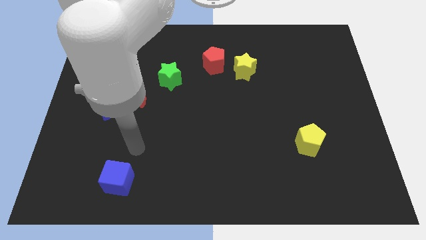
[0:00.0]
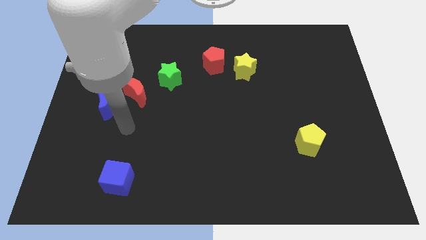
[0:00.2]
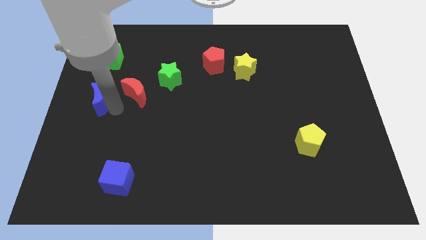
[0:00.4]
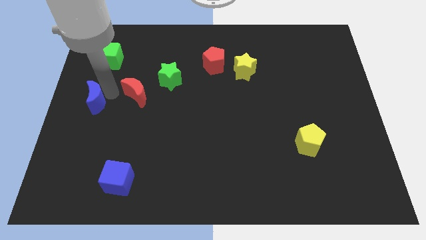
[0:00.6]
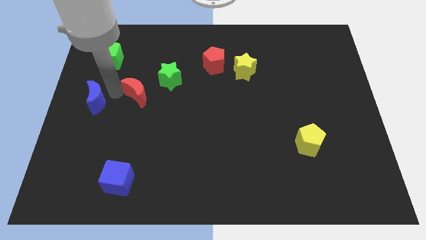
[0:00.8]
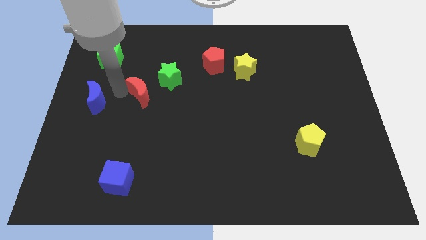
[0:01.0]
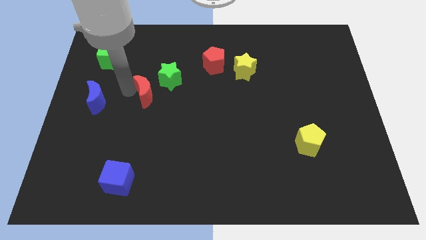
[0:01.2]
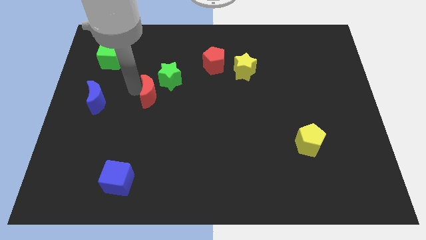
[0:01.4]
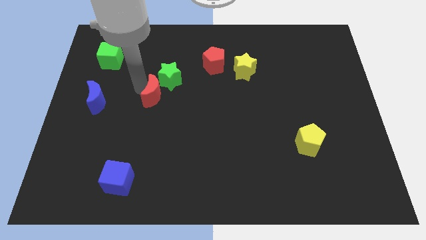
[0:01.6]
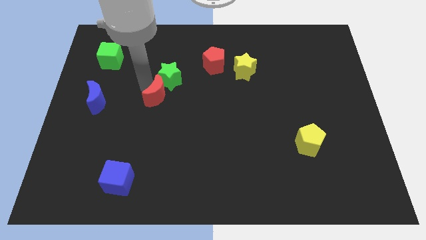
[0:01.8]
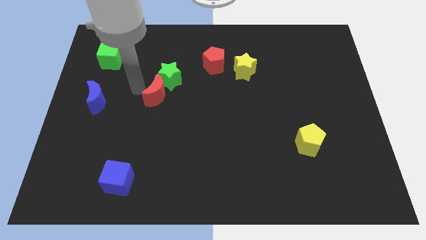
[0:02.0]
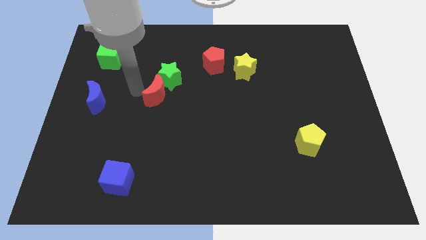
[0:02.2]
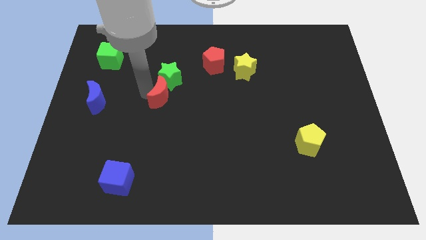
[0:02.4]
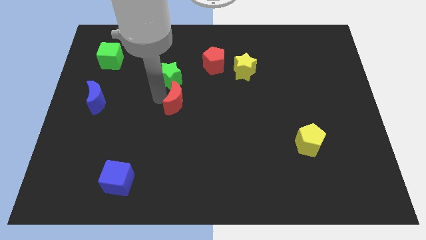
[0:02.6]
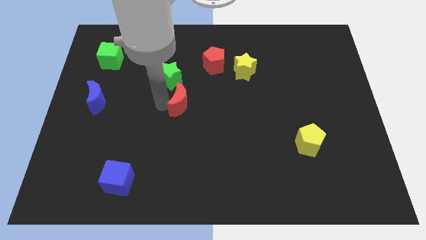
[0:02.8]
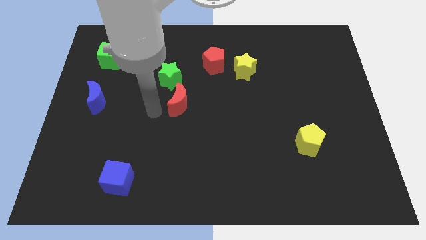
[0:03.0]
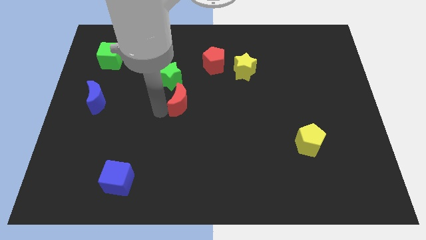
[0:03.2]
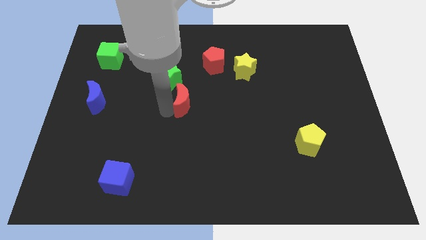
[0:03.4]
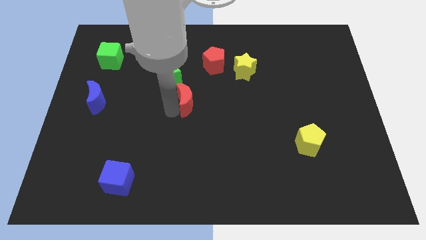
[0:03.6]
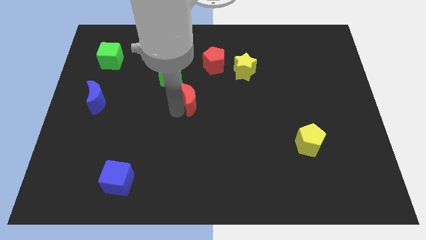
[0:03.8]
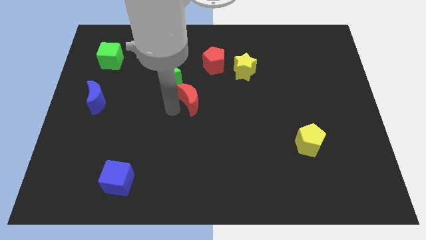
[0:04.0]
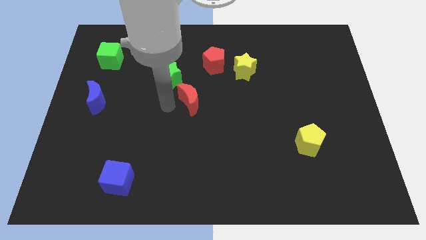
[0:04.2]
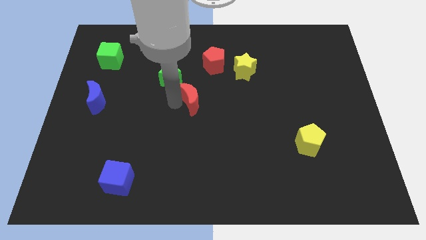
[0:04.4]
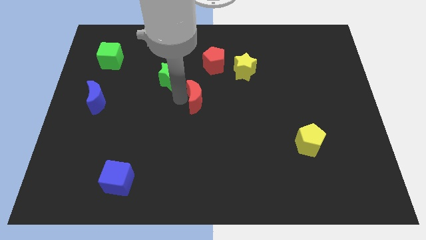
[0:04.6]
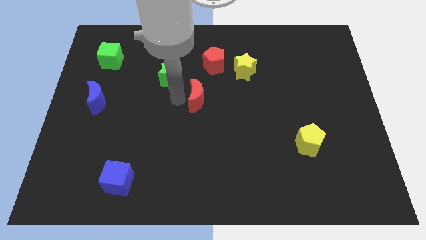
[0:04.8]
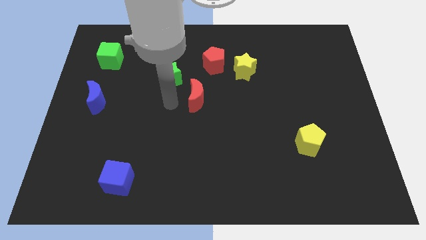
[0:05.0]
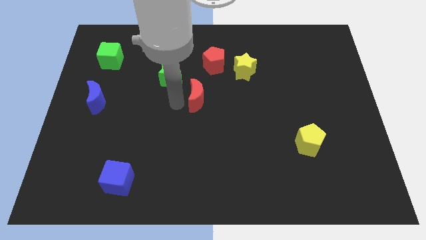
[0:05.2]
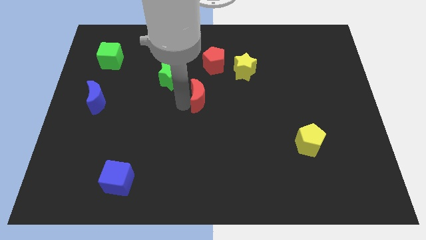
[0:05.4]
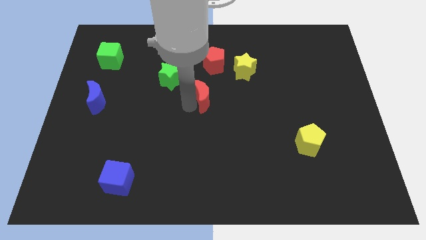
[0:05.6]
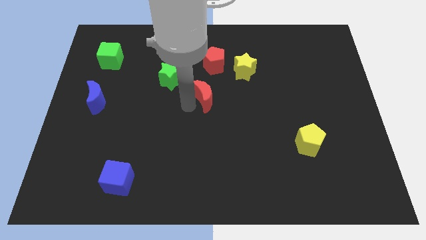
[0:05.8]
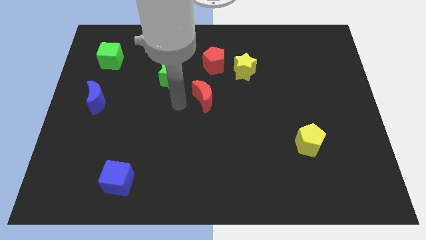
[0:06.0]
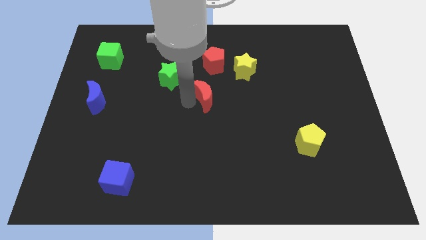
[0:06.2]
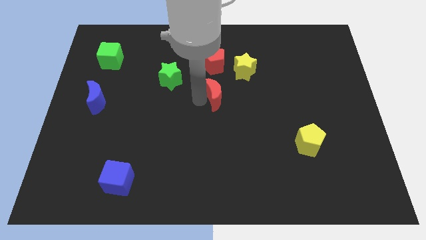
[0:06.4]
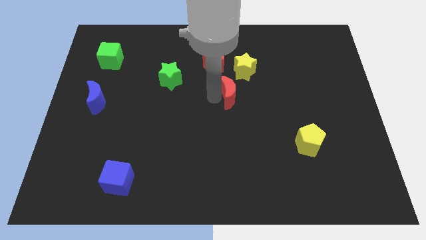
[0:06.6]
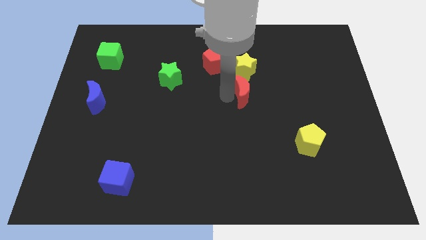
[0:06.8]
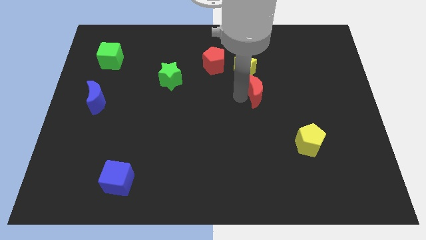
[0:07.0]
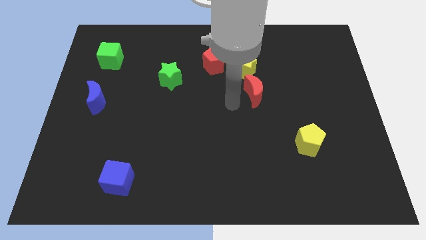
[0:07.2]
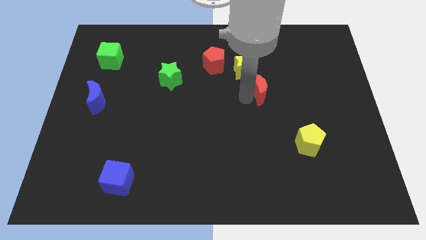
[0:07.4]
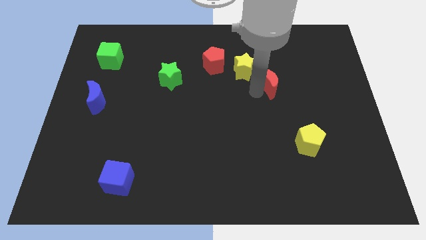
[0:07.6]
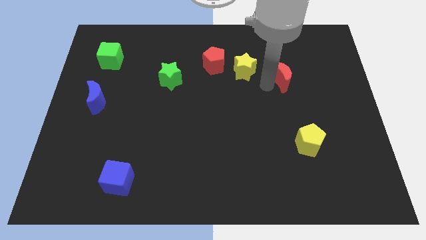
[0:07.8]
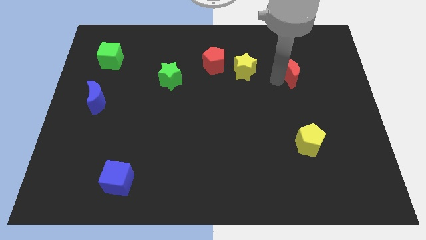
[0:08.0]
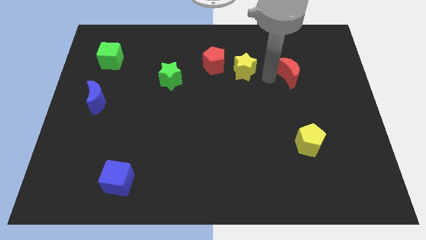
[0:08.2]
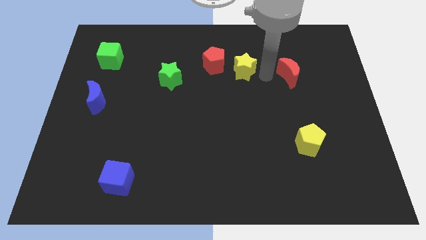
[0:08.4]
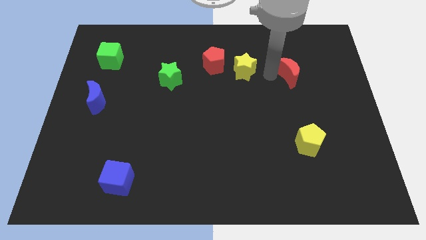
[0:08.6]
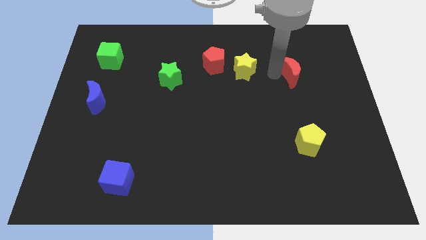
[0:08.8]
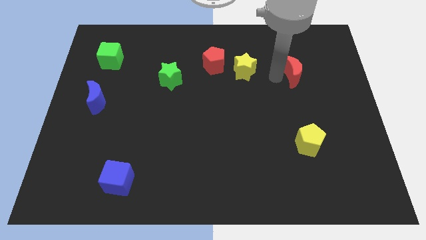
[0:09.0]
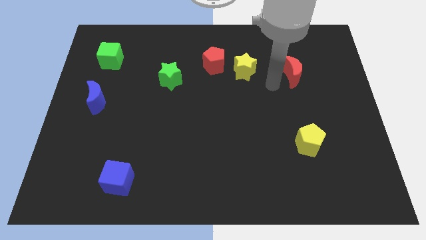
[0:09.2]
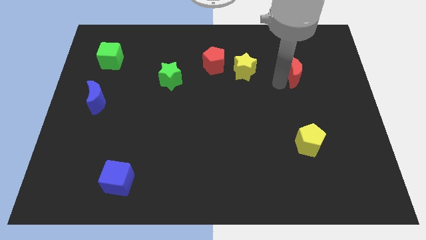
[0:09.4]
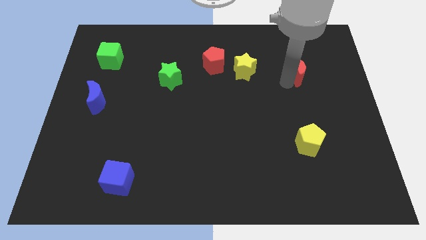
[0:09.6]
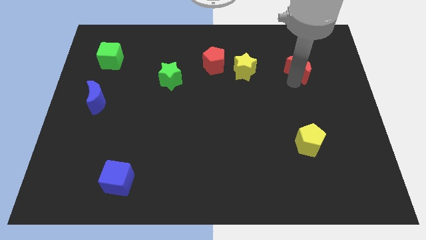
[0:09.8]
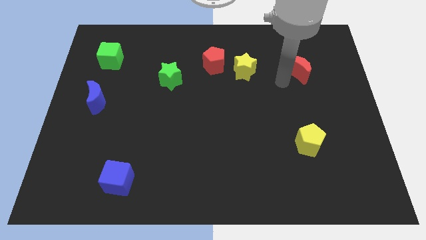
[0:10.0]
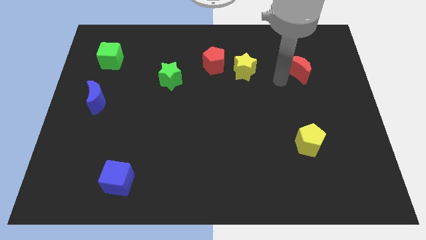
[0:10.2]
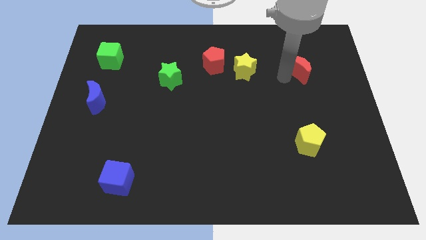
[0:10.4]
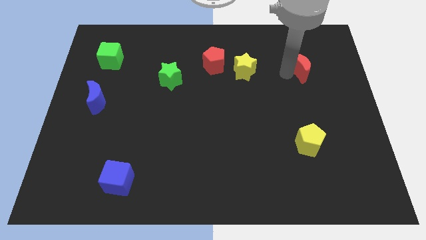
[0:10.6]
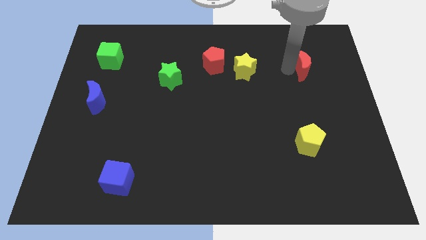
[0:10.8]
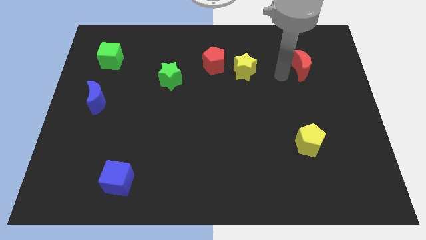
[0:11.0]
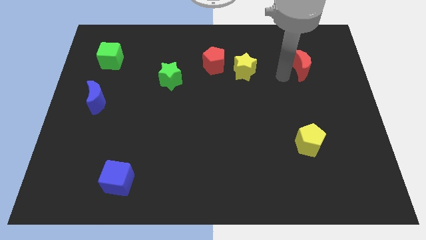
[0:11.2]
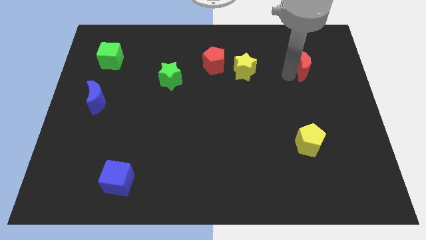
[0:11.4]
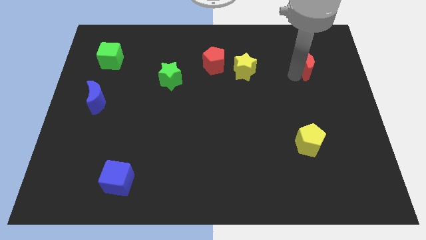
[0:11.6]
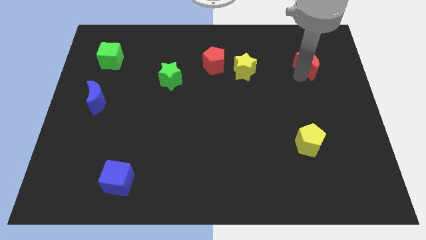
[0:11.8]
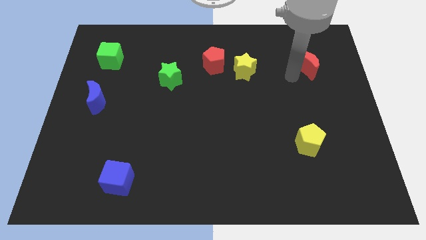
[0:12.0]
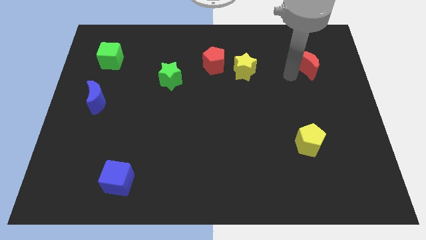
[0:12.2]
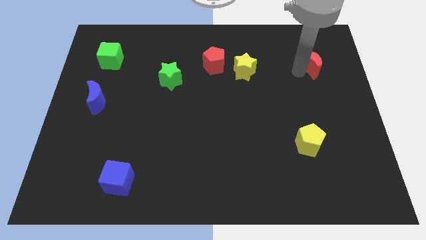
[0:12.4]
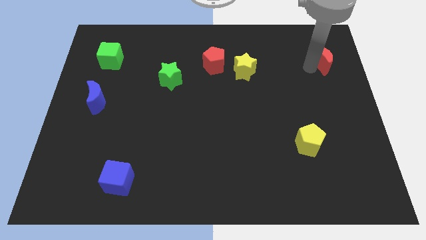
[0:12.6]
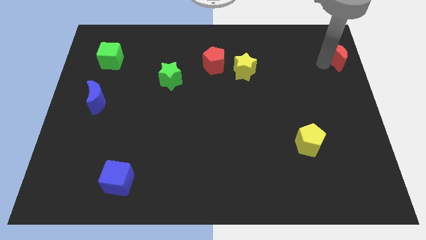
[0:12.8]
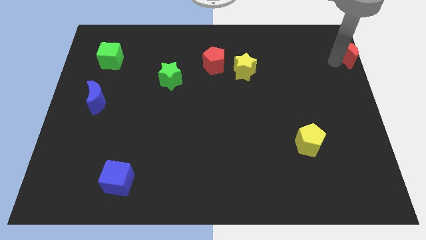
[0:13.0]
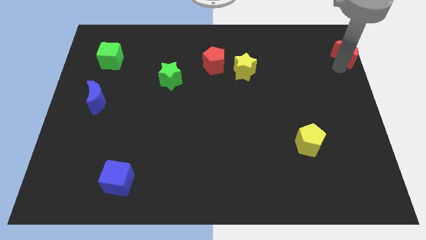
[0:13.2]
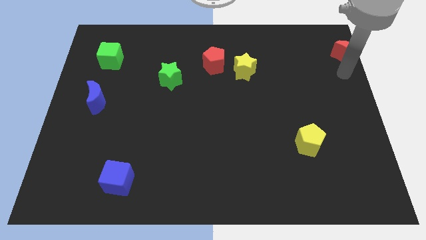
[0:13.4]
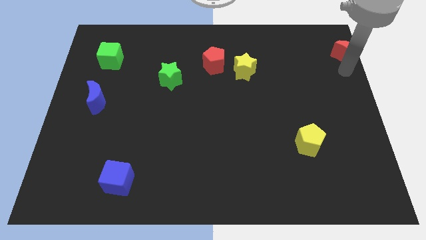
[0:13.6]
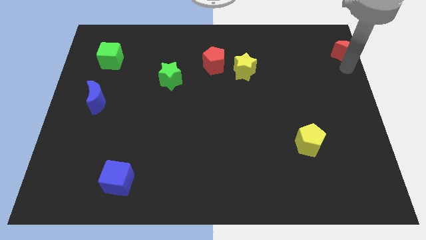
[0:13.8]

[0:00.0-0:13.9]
move the red moon to the top right
